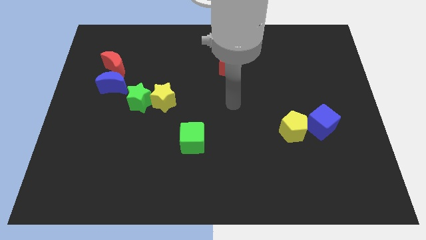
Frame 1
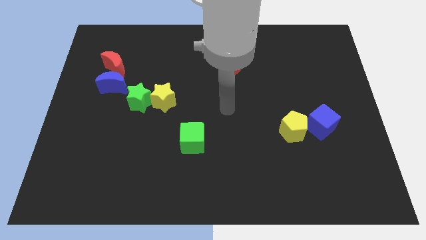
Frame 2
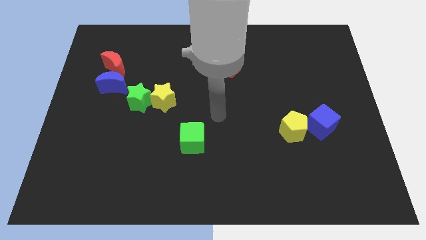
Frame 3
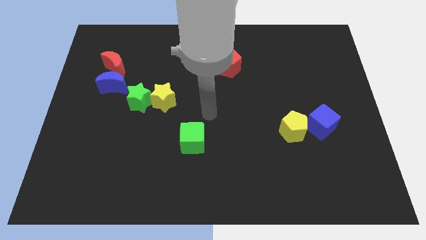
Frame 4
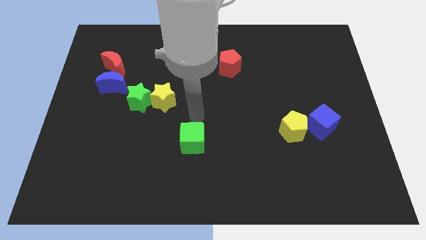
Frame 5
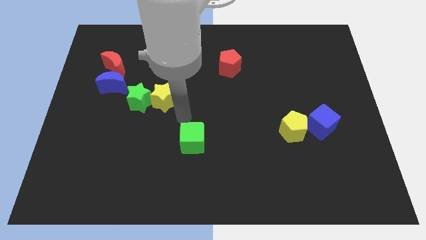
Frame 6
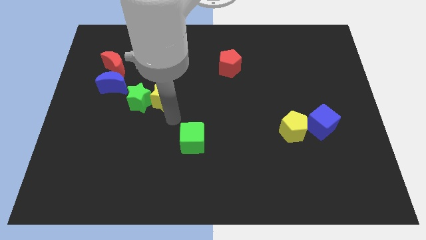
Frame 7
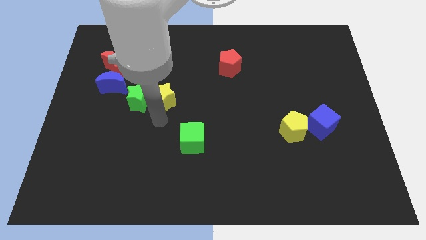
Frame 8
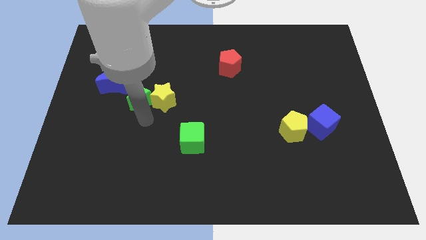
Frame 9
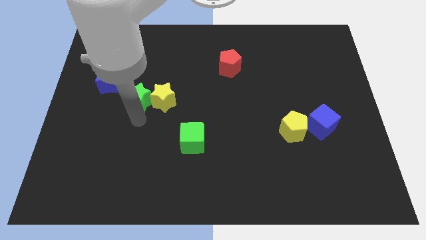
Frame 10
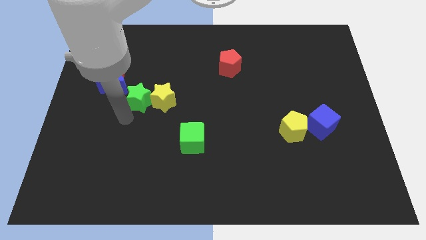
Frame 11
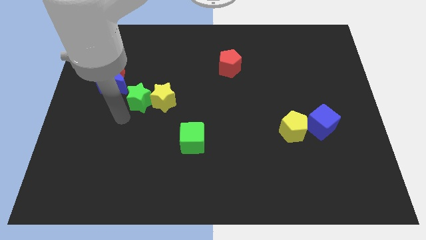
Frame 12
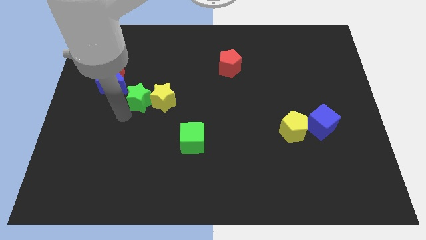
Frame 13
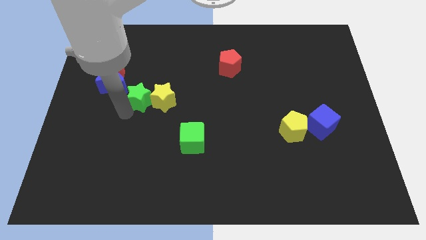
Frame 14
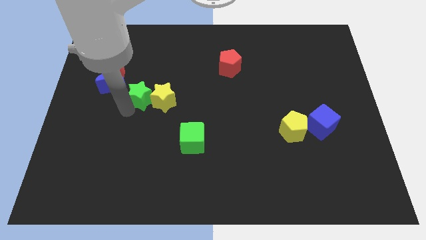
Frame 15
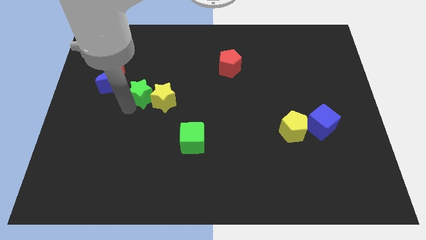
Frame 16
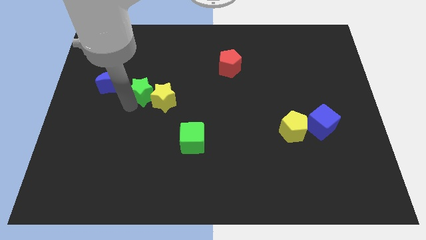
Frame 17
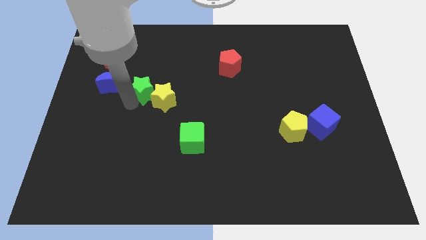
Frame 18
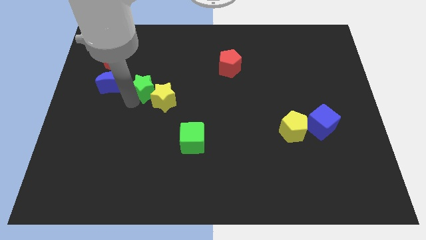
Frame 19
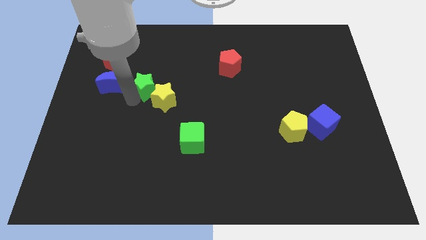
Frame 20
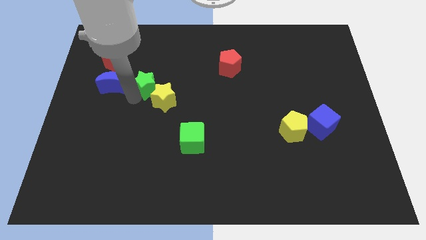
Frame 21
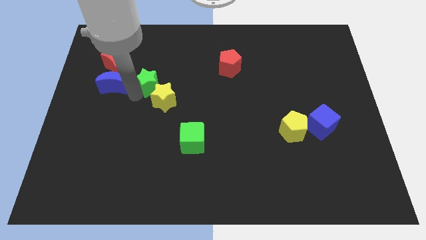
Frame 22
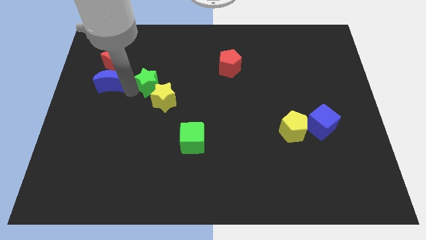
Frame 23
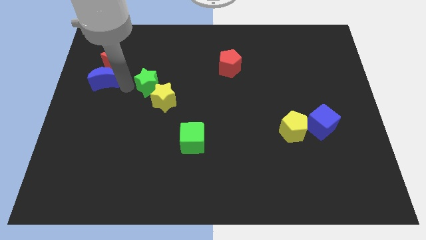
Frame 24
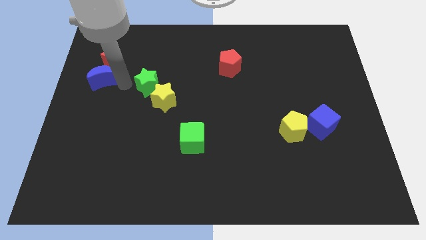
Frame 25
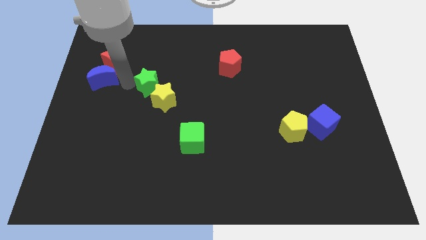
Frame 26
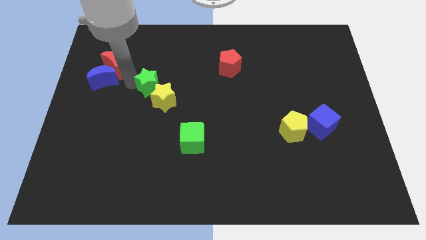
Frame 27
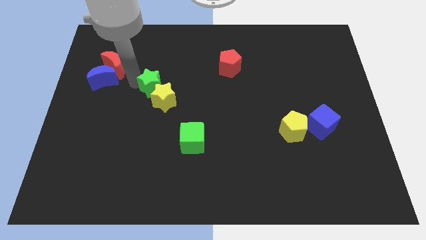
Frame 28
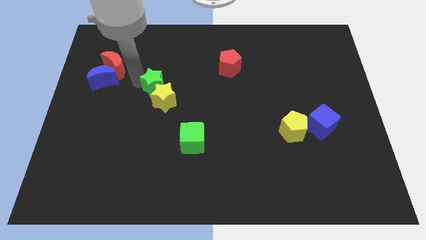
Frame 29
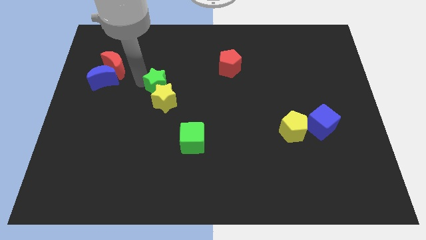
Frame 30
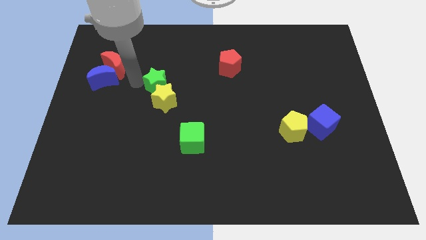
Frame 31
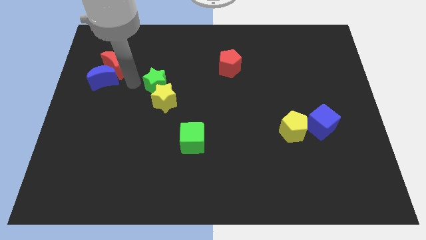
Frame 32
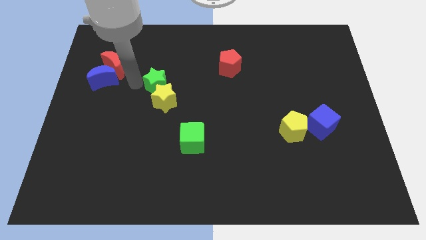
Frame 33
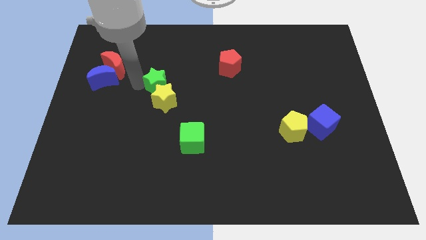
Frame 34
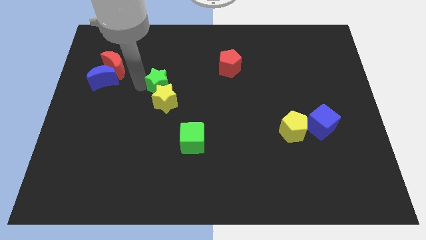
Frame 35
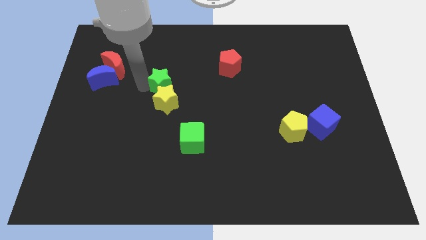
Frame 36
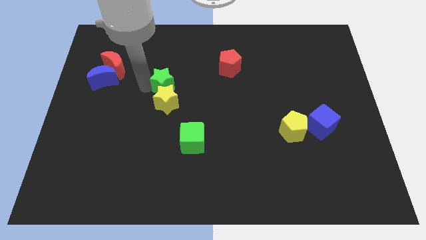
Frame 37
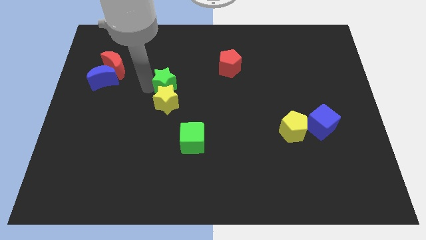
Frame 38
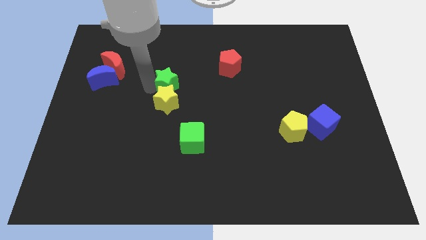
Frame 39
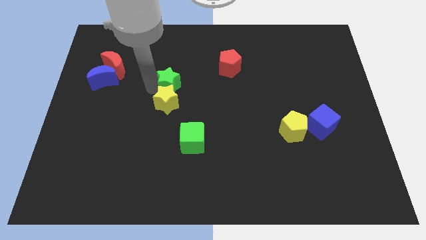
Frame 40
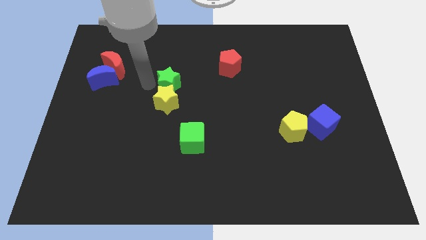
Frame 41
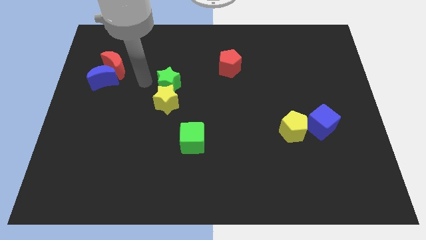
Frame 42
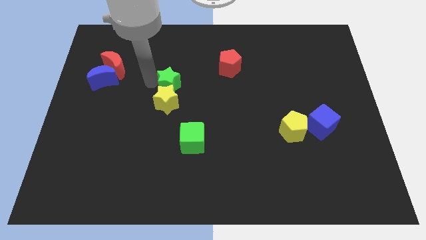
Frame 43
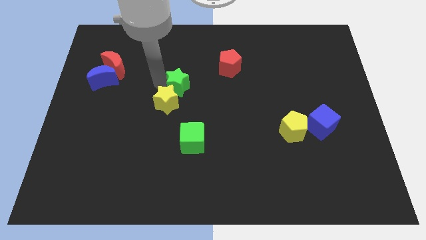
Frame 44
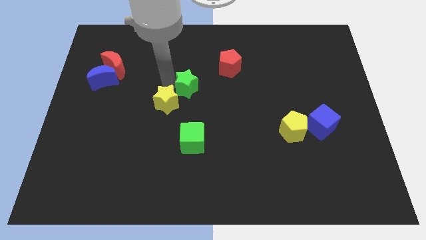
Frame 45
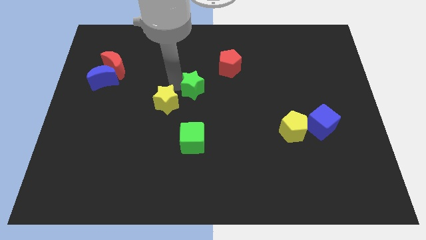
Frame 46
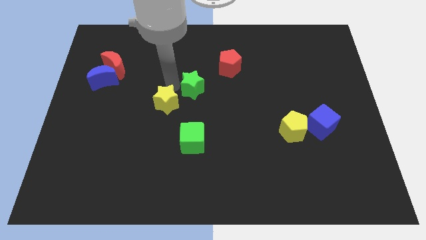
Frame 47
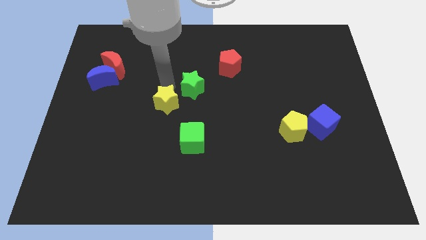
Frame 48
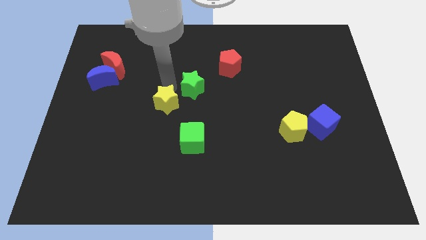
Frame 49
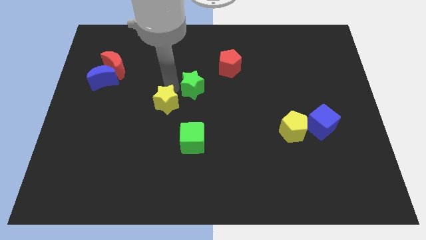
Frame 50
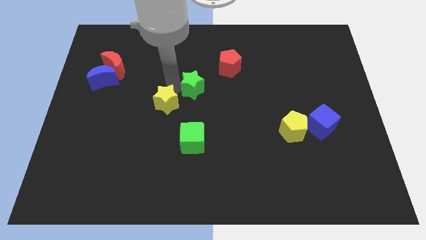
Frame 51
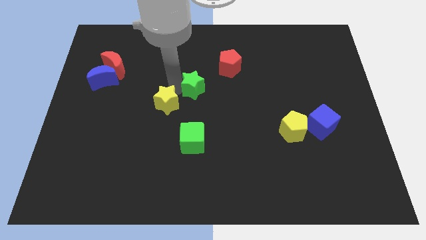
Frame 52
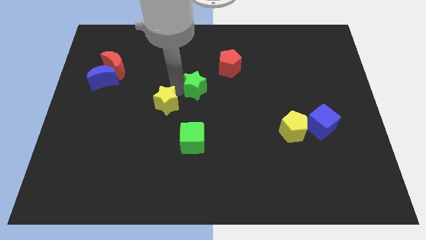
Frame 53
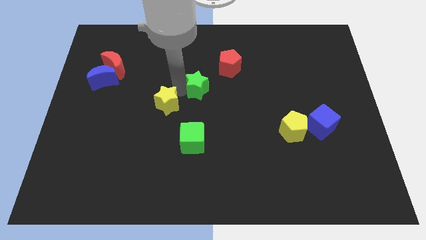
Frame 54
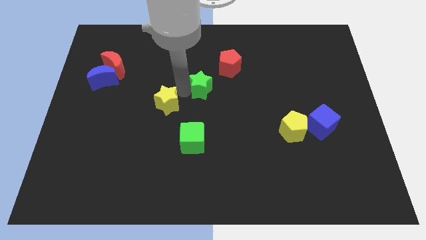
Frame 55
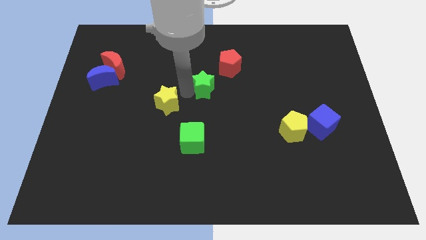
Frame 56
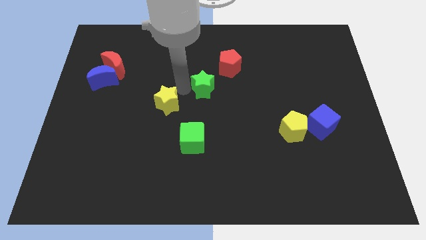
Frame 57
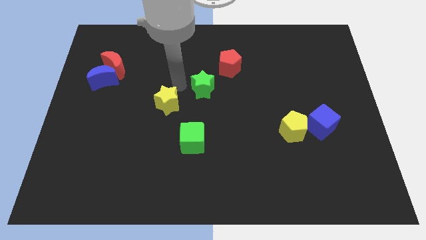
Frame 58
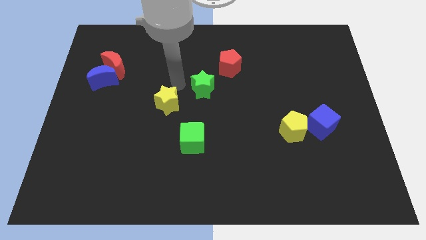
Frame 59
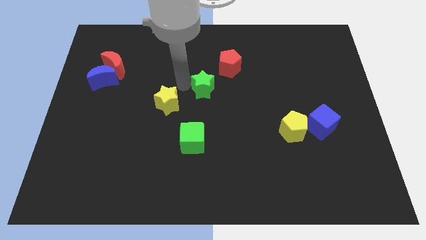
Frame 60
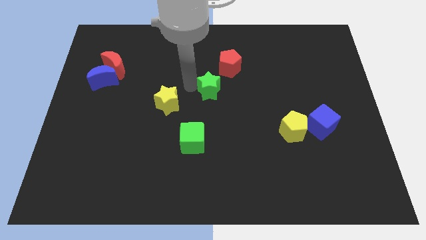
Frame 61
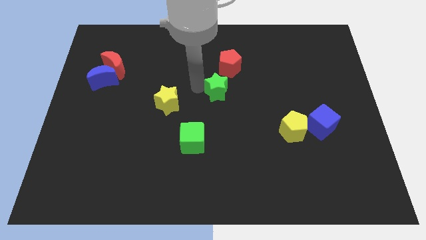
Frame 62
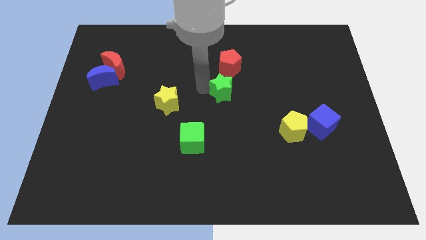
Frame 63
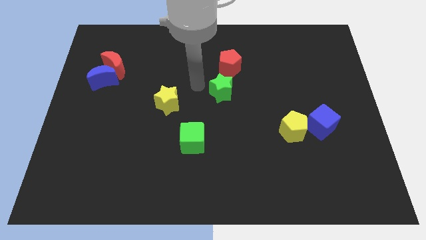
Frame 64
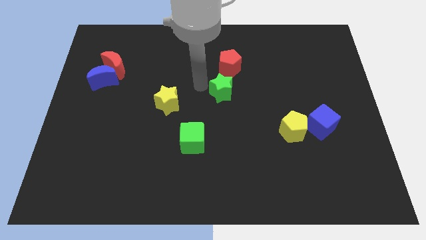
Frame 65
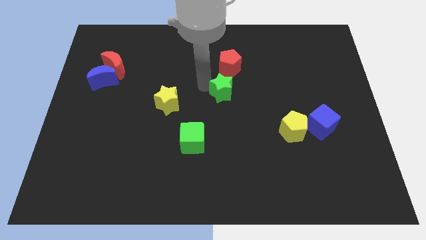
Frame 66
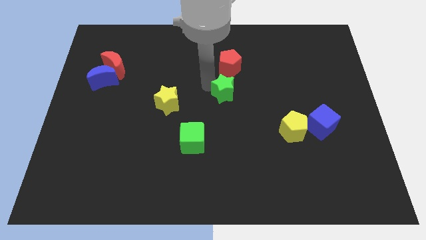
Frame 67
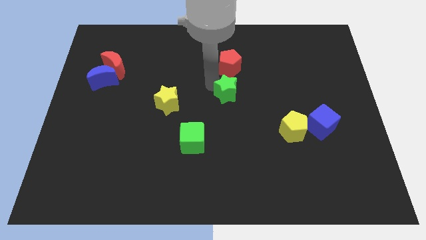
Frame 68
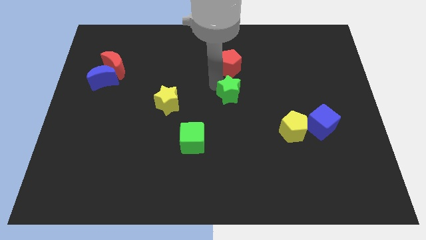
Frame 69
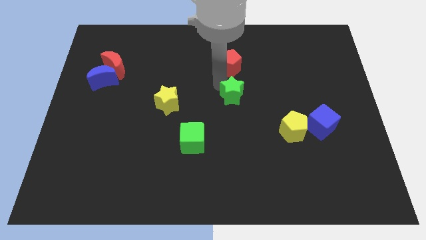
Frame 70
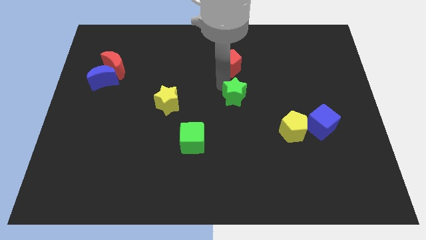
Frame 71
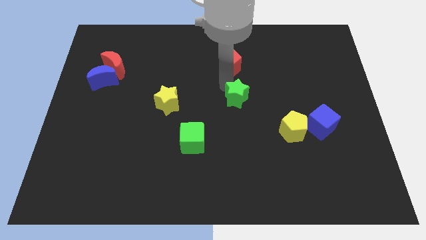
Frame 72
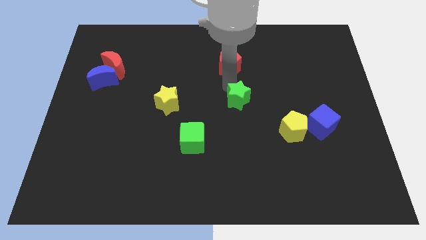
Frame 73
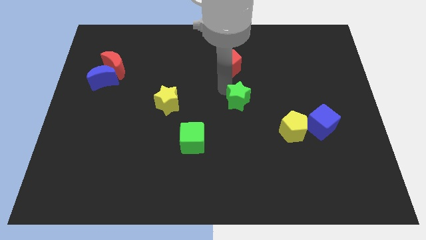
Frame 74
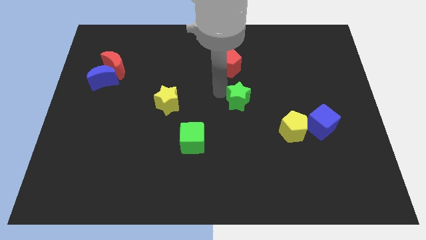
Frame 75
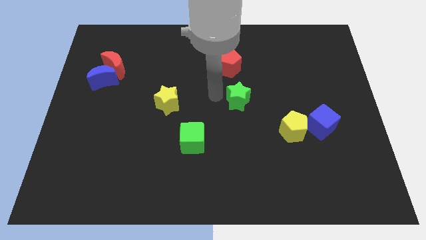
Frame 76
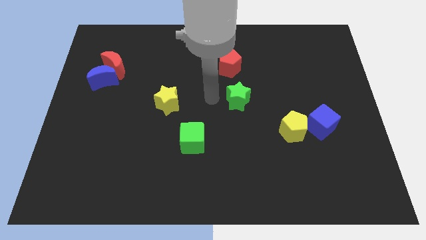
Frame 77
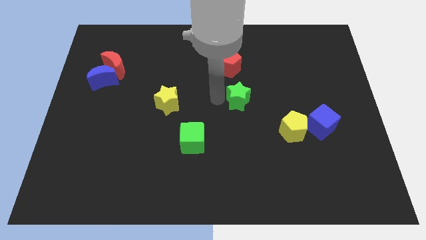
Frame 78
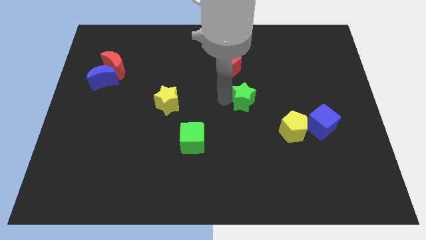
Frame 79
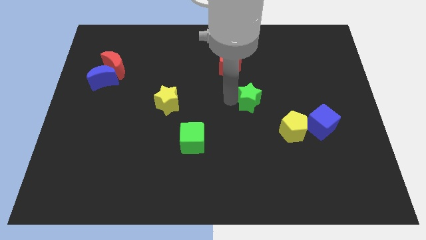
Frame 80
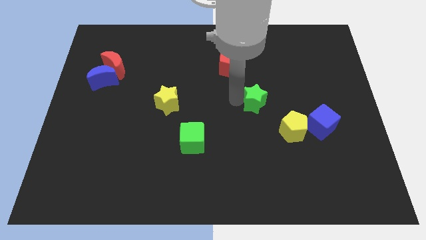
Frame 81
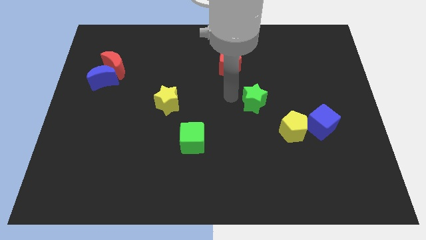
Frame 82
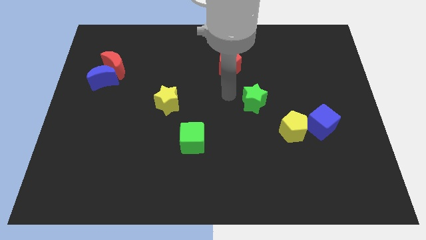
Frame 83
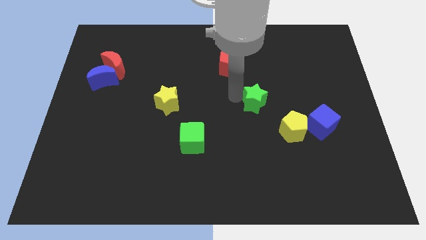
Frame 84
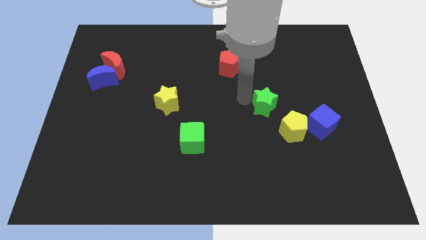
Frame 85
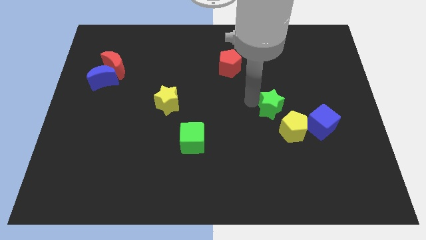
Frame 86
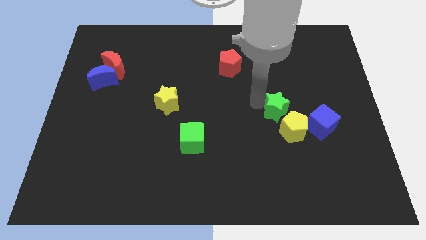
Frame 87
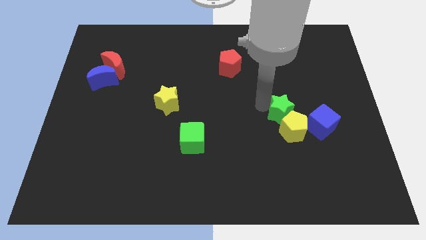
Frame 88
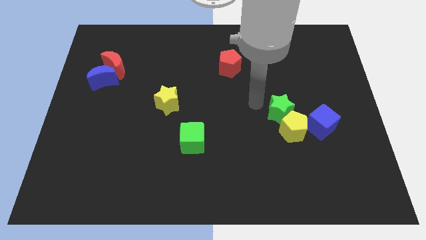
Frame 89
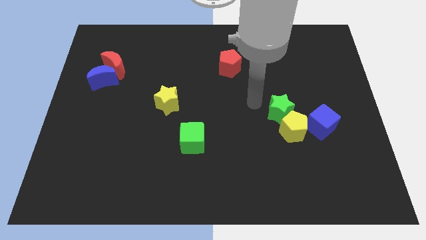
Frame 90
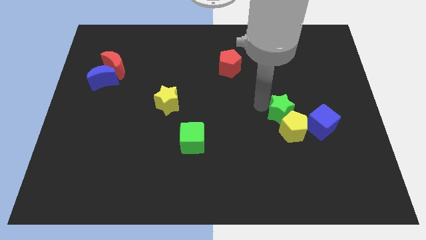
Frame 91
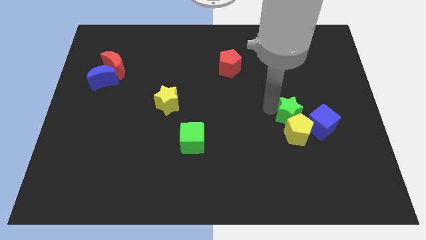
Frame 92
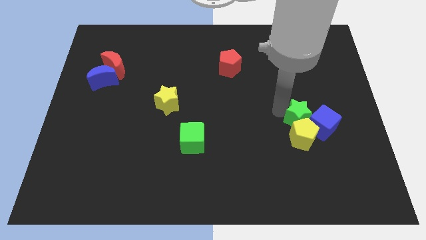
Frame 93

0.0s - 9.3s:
move the green star next to the blue cube
